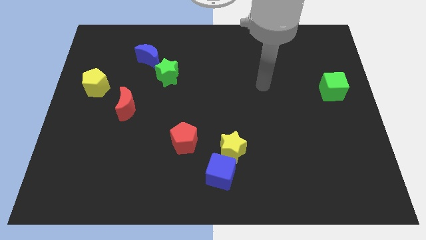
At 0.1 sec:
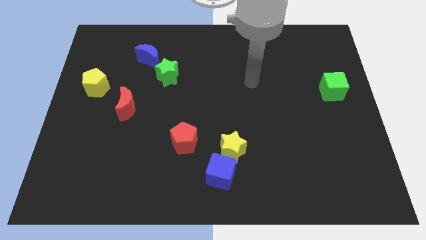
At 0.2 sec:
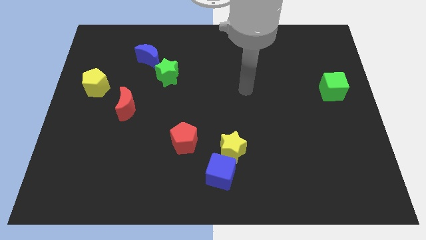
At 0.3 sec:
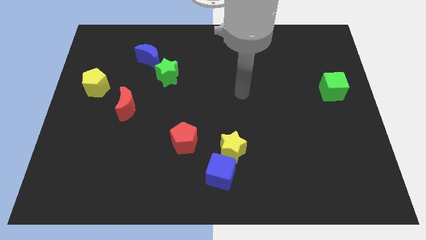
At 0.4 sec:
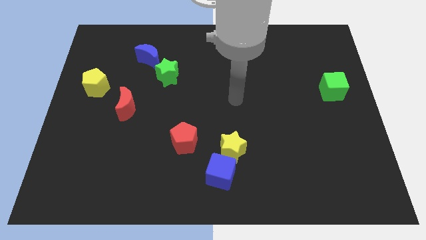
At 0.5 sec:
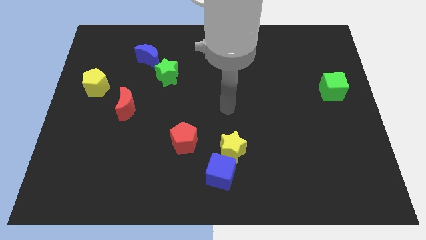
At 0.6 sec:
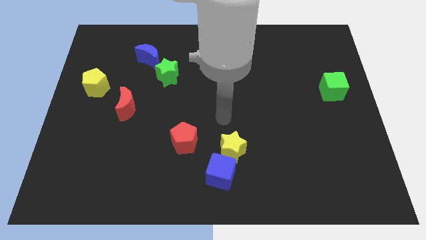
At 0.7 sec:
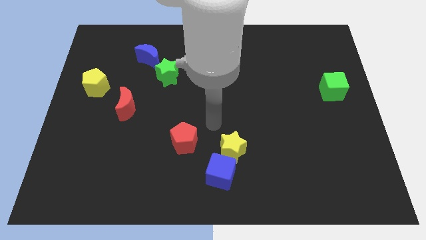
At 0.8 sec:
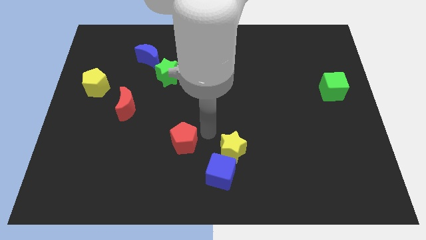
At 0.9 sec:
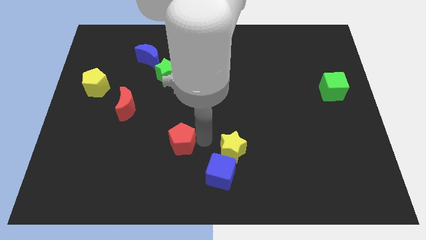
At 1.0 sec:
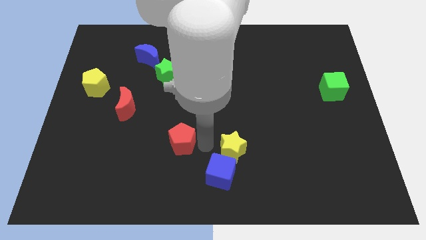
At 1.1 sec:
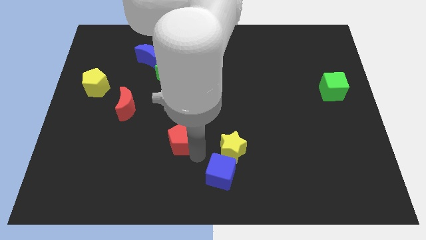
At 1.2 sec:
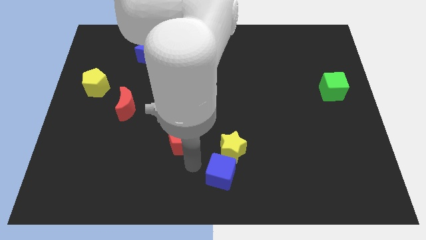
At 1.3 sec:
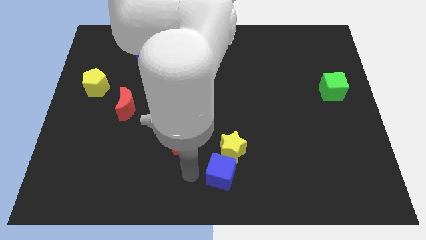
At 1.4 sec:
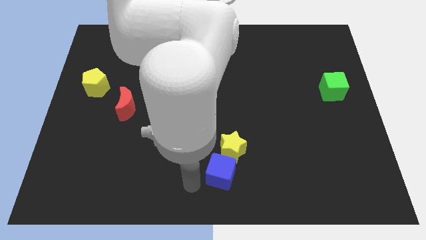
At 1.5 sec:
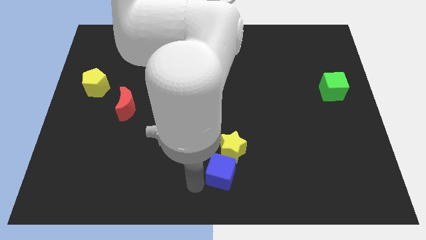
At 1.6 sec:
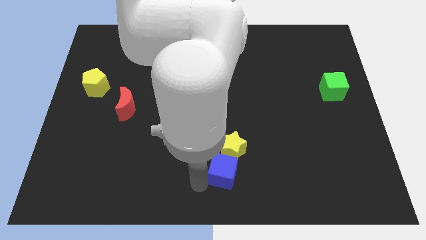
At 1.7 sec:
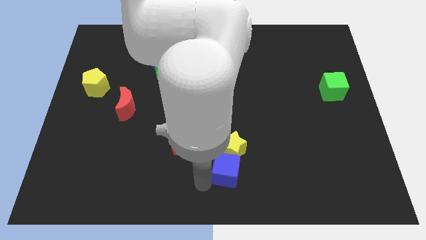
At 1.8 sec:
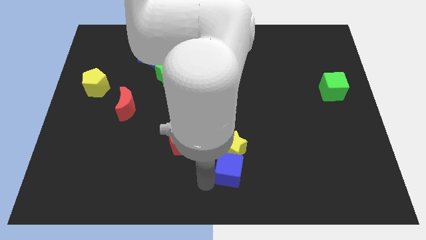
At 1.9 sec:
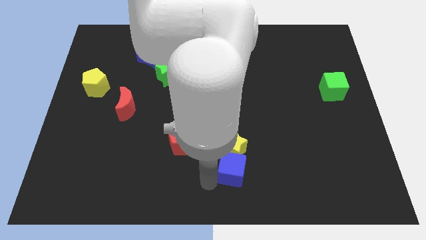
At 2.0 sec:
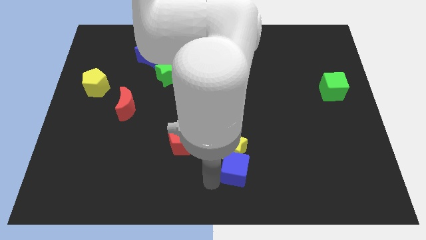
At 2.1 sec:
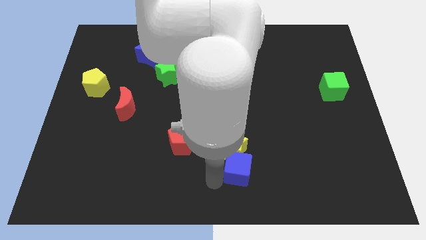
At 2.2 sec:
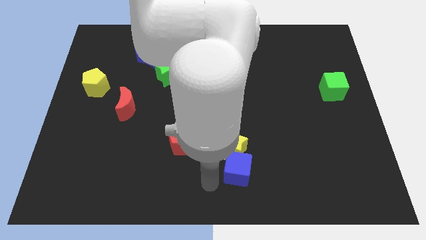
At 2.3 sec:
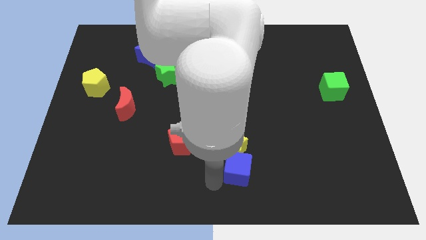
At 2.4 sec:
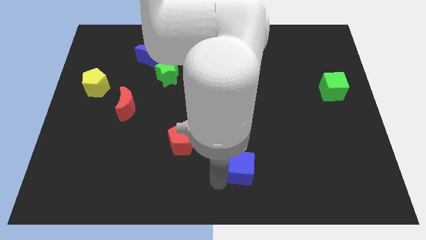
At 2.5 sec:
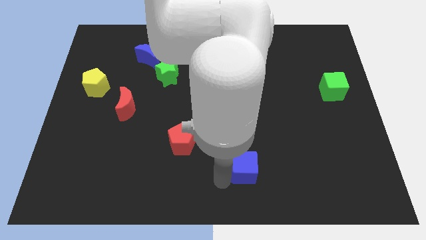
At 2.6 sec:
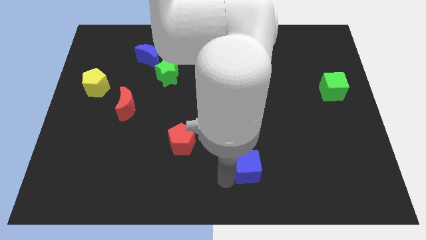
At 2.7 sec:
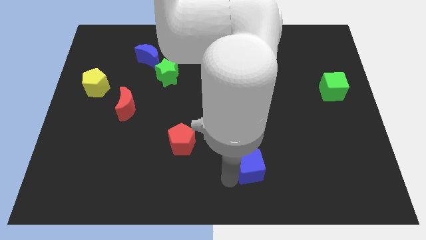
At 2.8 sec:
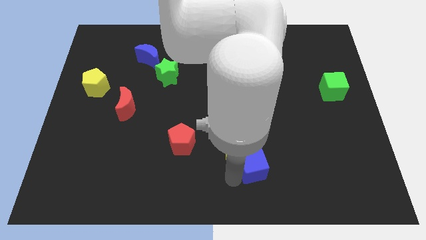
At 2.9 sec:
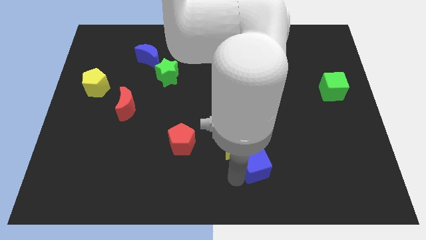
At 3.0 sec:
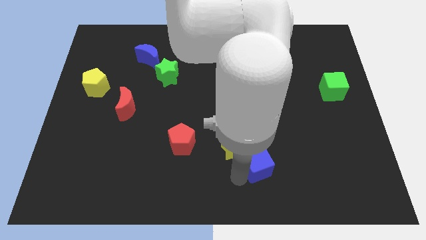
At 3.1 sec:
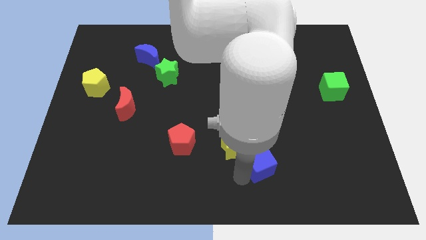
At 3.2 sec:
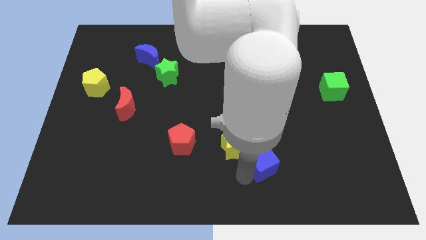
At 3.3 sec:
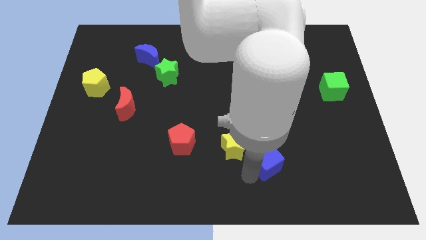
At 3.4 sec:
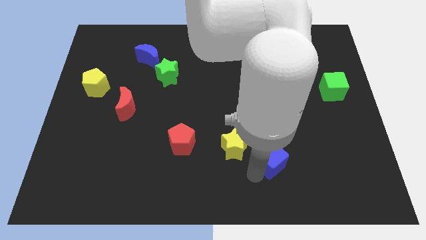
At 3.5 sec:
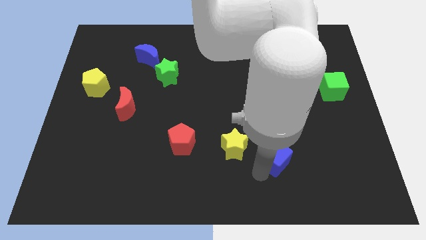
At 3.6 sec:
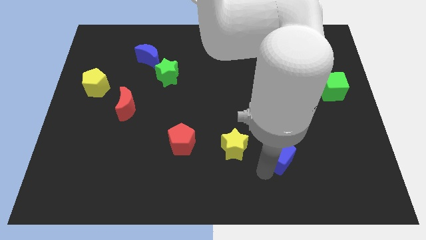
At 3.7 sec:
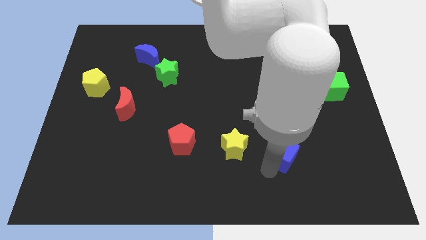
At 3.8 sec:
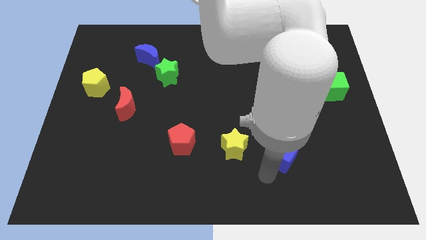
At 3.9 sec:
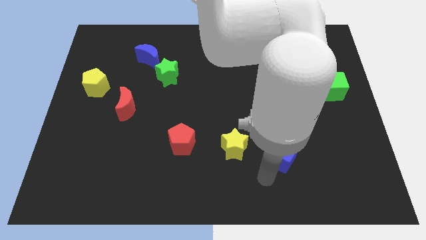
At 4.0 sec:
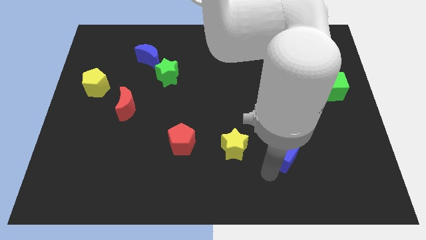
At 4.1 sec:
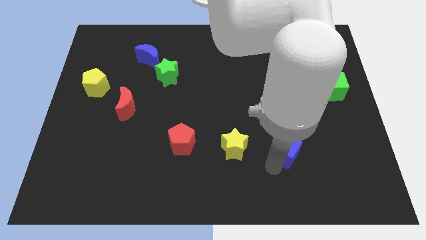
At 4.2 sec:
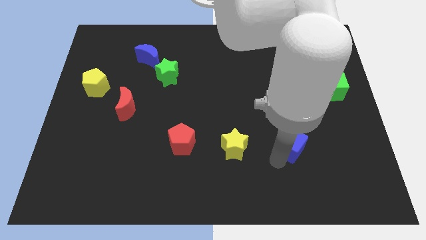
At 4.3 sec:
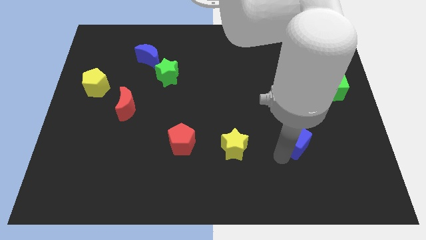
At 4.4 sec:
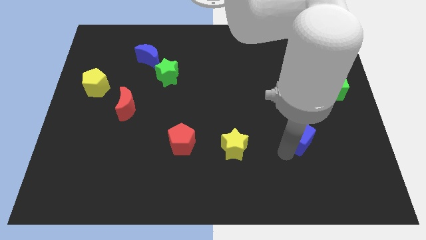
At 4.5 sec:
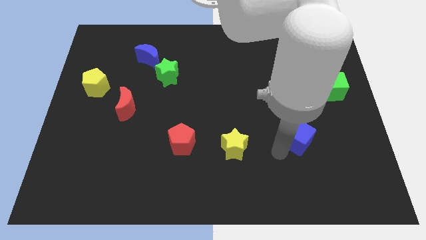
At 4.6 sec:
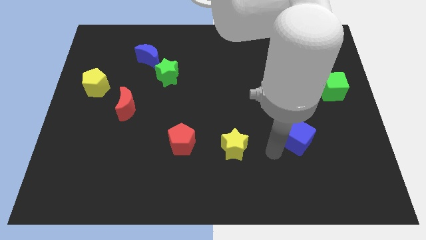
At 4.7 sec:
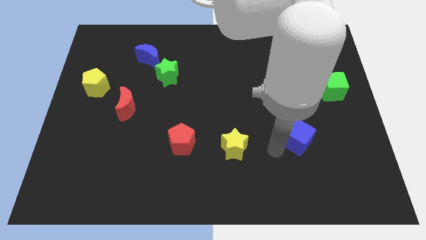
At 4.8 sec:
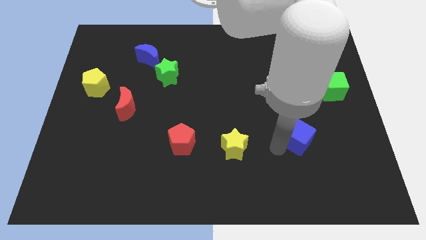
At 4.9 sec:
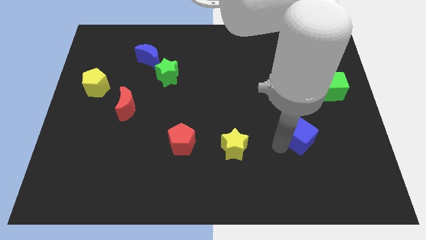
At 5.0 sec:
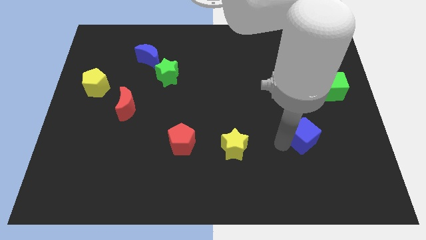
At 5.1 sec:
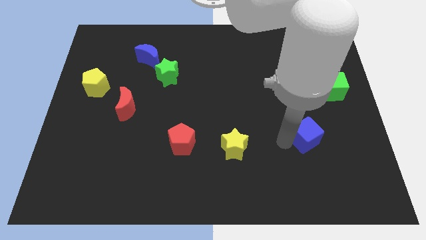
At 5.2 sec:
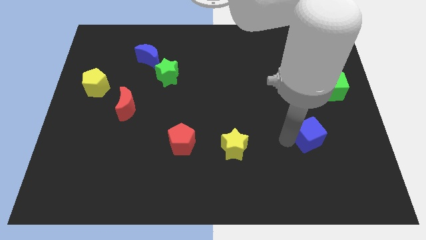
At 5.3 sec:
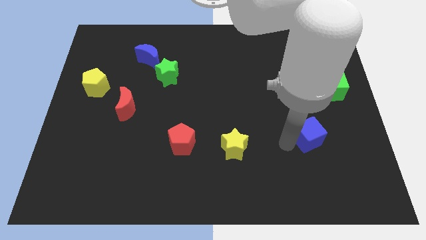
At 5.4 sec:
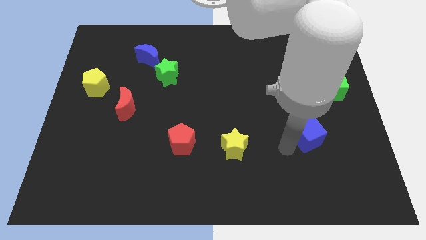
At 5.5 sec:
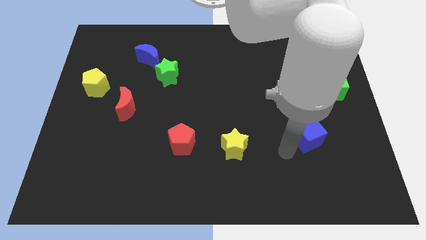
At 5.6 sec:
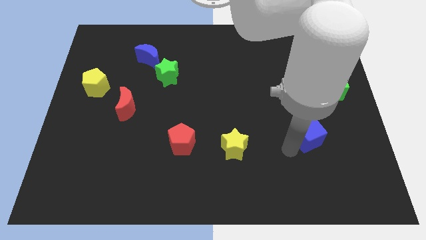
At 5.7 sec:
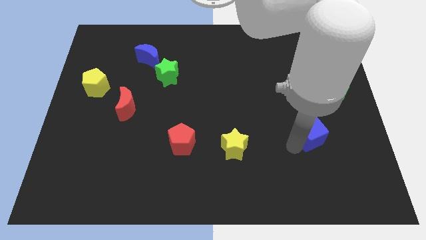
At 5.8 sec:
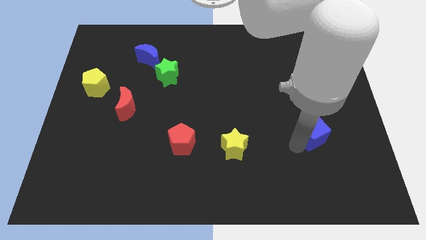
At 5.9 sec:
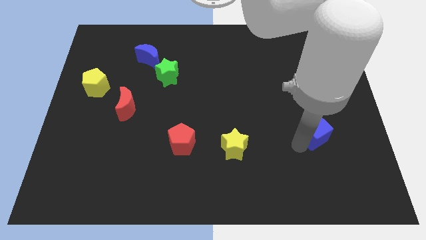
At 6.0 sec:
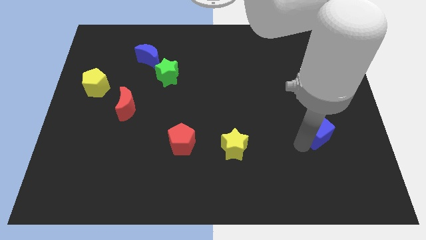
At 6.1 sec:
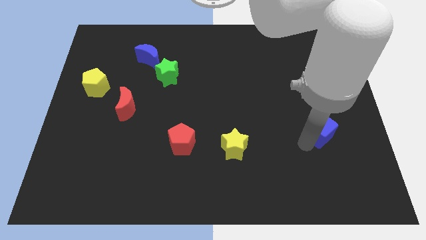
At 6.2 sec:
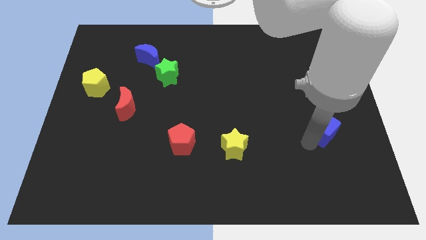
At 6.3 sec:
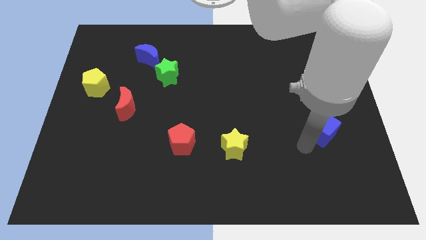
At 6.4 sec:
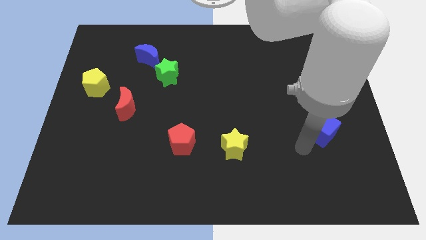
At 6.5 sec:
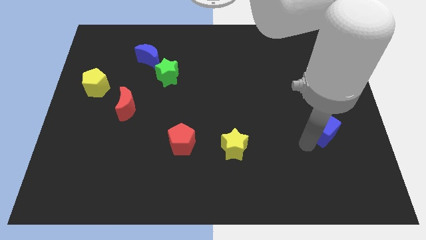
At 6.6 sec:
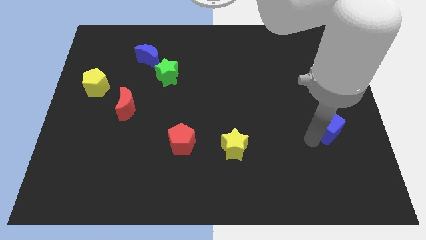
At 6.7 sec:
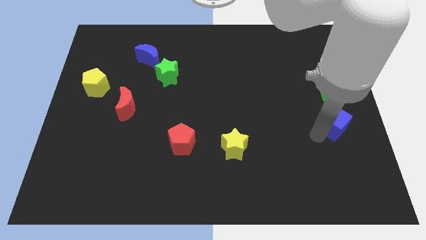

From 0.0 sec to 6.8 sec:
push the blue cube to the right side of the board

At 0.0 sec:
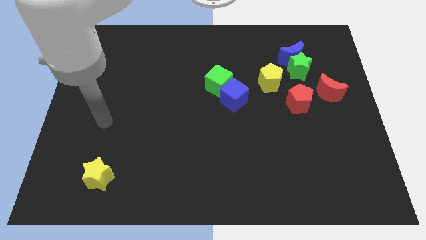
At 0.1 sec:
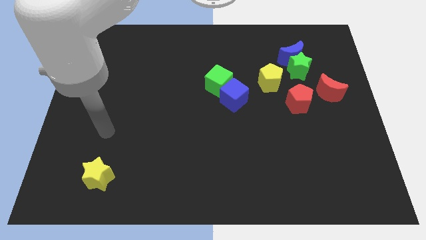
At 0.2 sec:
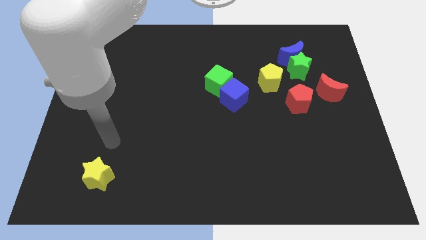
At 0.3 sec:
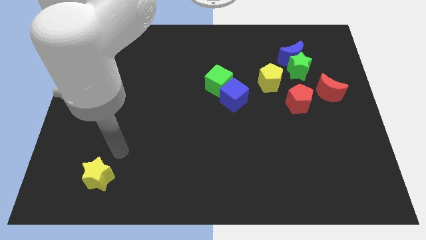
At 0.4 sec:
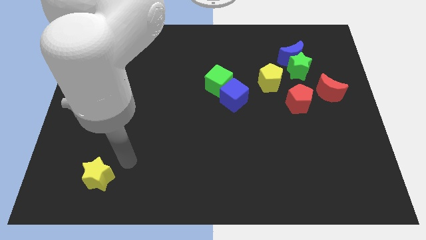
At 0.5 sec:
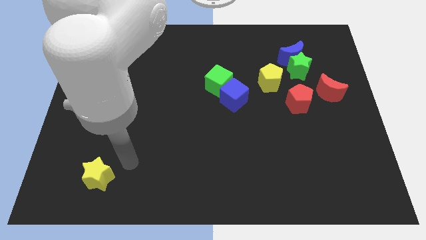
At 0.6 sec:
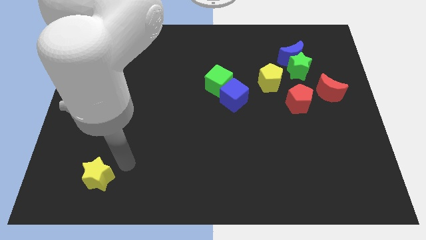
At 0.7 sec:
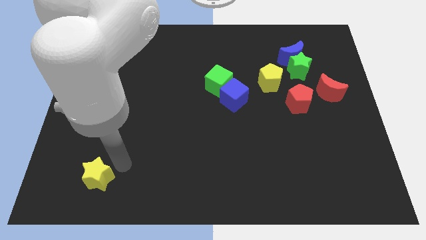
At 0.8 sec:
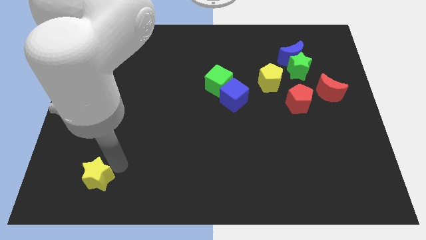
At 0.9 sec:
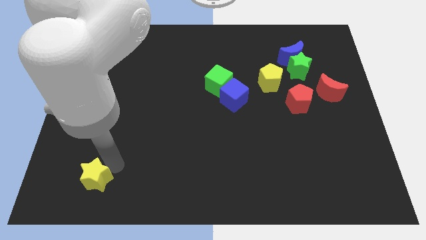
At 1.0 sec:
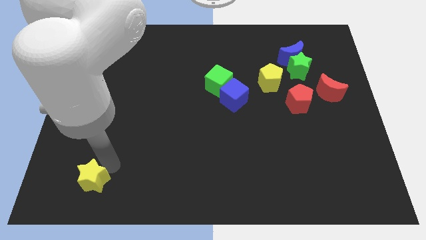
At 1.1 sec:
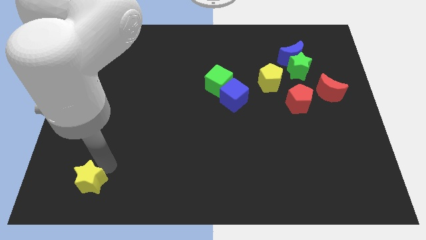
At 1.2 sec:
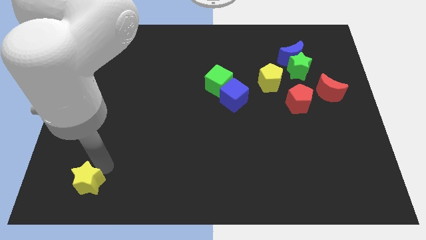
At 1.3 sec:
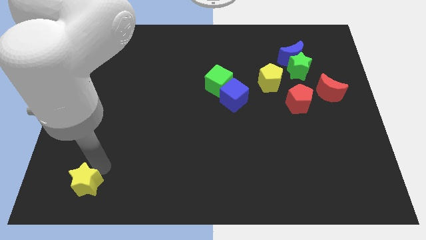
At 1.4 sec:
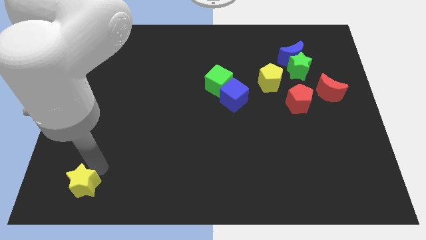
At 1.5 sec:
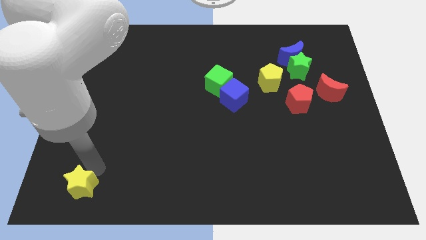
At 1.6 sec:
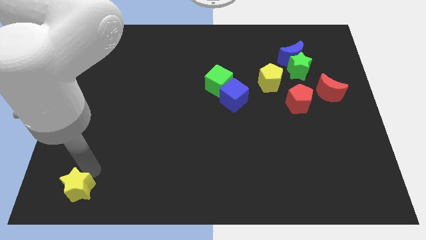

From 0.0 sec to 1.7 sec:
slide the yellow star to the lower left corner
